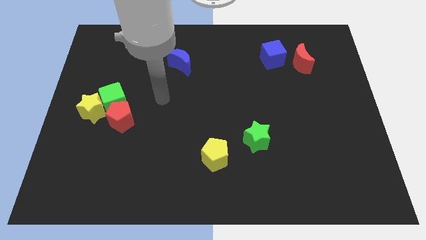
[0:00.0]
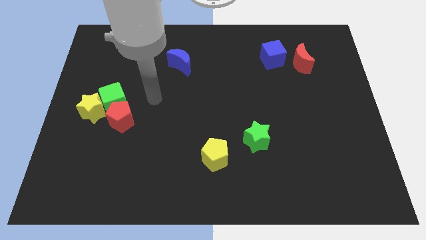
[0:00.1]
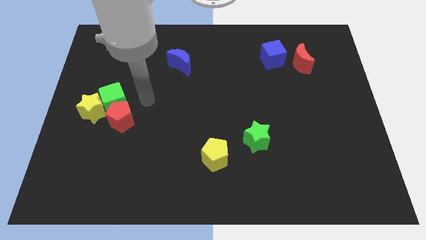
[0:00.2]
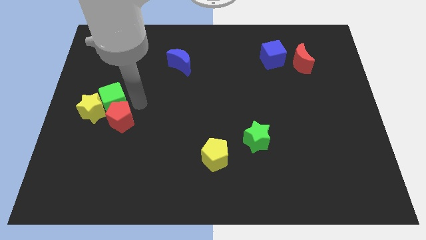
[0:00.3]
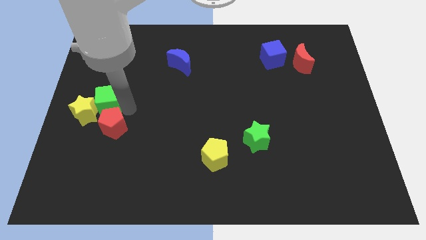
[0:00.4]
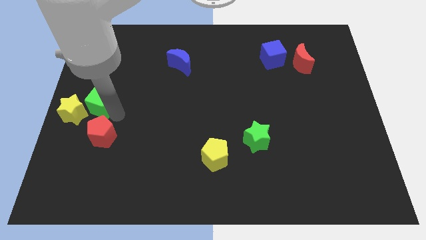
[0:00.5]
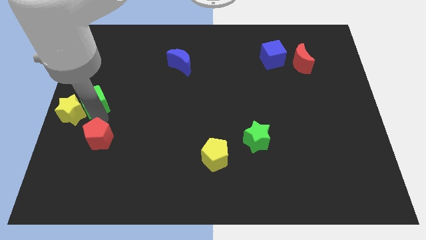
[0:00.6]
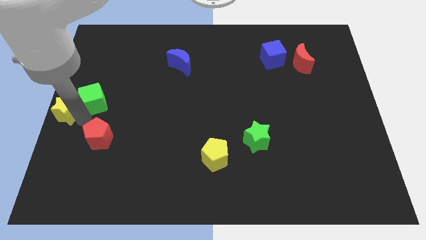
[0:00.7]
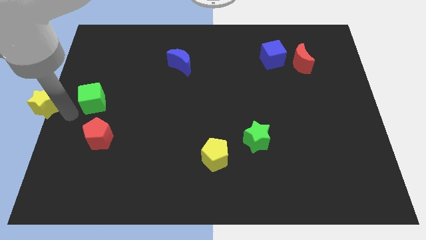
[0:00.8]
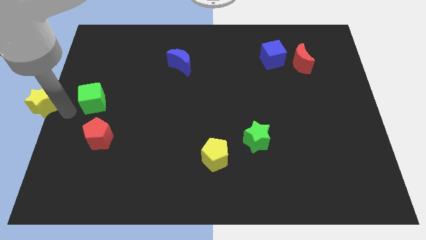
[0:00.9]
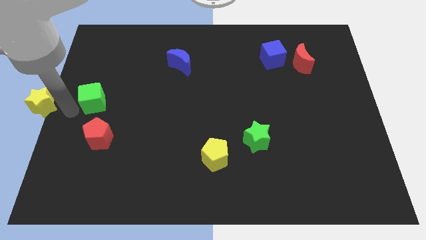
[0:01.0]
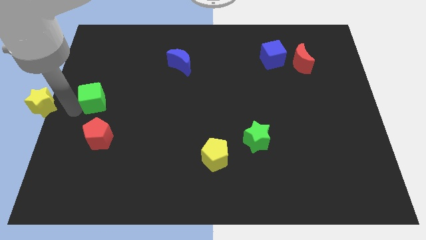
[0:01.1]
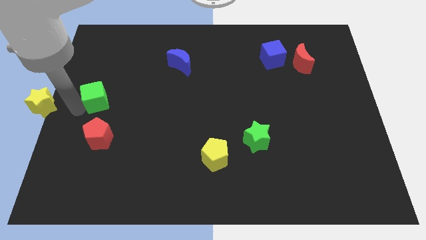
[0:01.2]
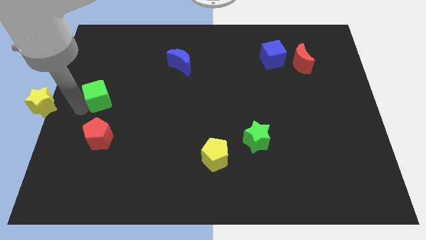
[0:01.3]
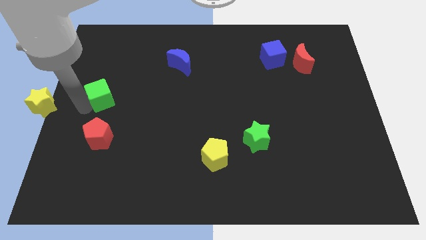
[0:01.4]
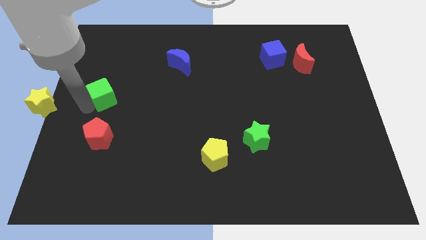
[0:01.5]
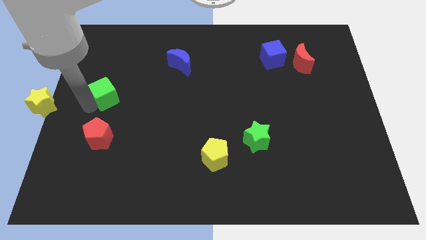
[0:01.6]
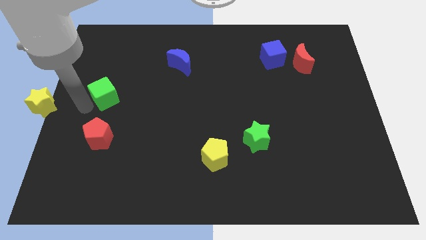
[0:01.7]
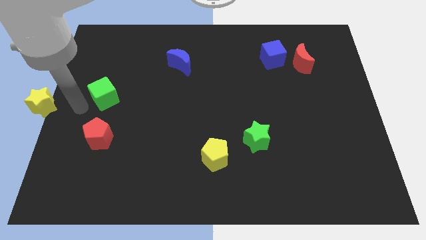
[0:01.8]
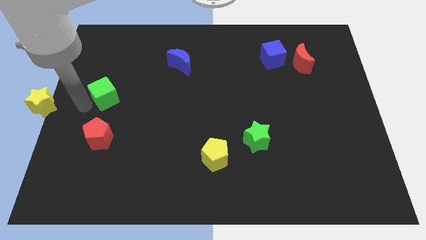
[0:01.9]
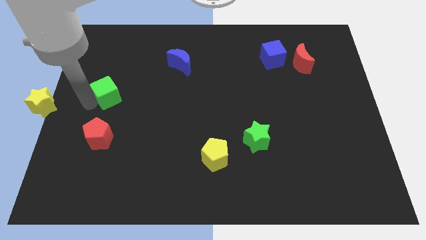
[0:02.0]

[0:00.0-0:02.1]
pull the green cube apart from the yellow star and red pentagon

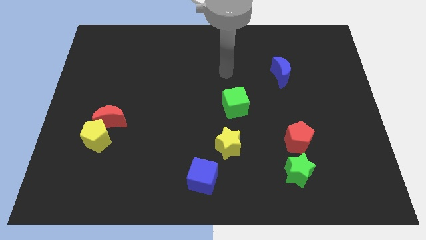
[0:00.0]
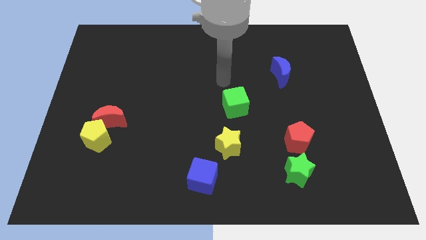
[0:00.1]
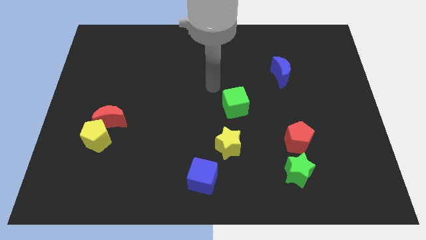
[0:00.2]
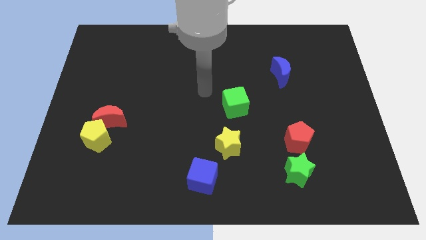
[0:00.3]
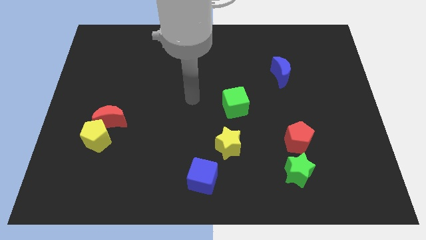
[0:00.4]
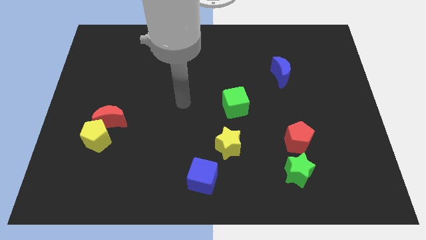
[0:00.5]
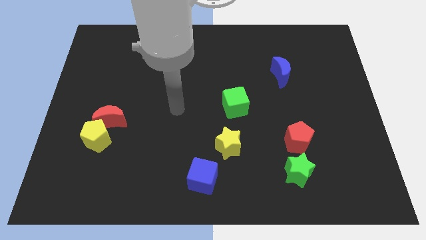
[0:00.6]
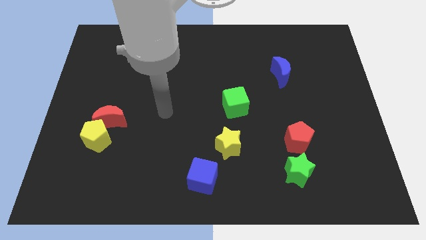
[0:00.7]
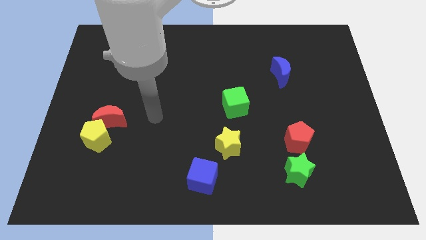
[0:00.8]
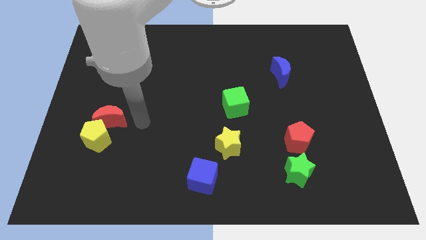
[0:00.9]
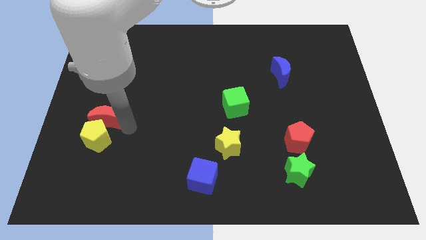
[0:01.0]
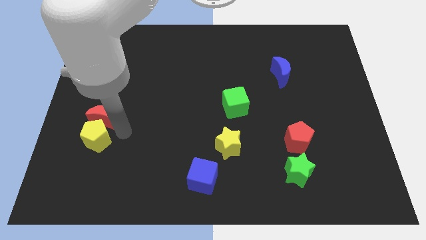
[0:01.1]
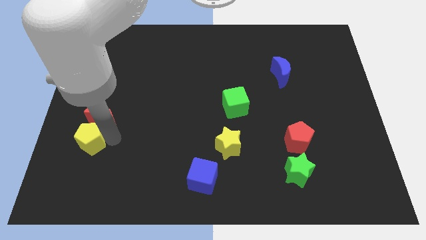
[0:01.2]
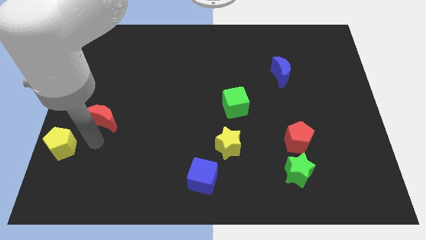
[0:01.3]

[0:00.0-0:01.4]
pull the red moon apart from the yellow pentagon

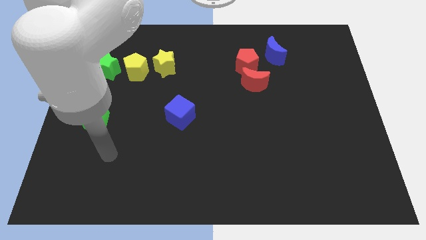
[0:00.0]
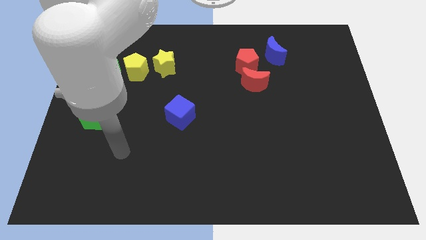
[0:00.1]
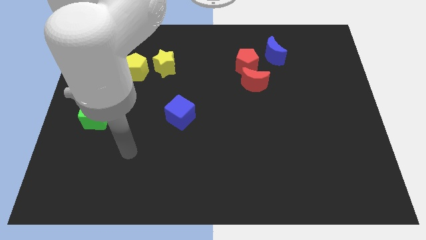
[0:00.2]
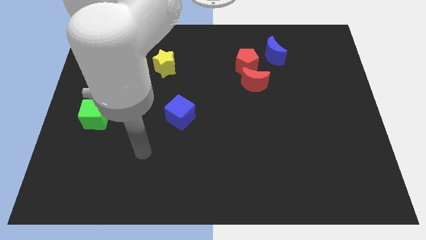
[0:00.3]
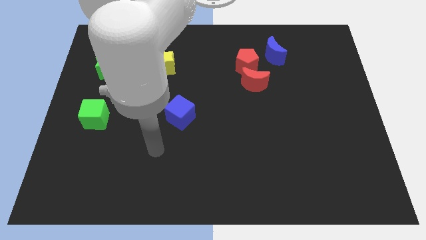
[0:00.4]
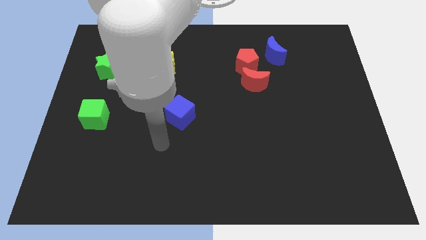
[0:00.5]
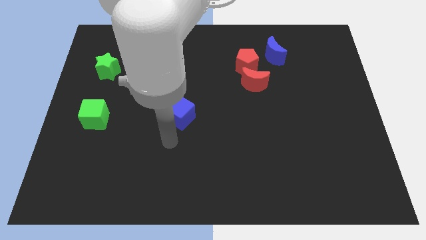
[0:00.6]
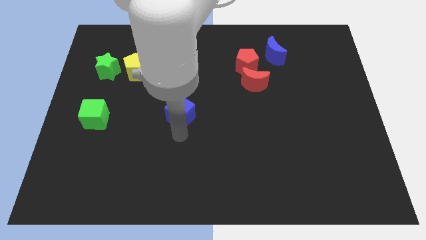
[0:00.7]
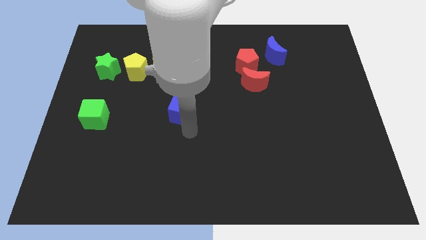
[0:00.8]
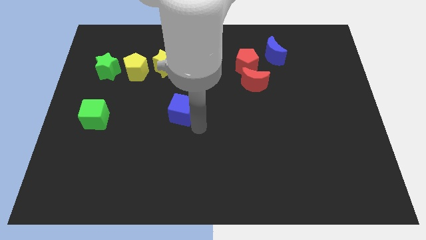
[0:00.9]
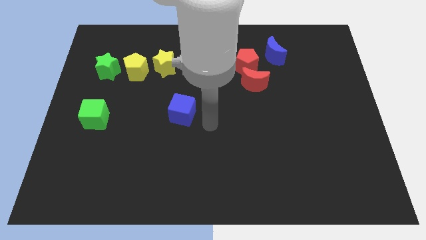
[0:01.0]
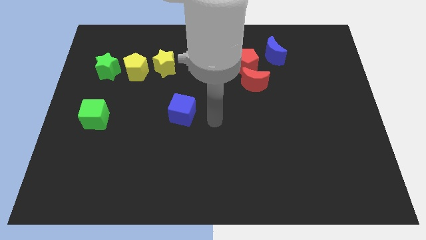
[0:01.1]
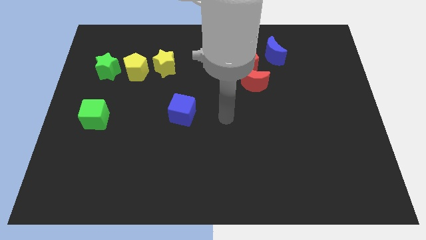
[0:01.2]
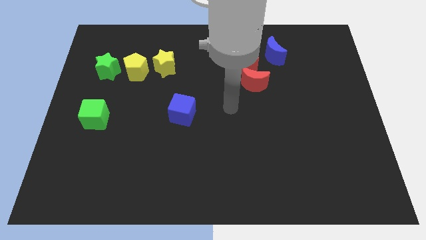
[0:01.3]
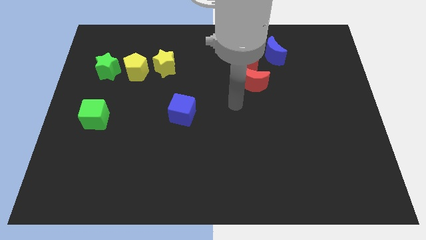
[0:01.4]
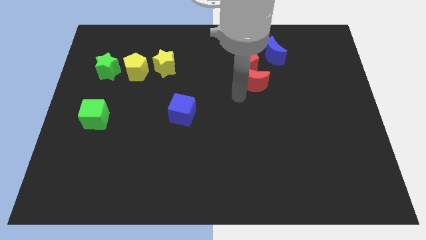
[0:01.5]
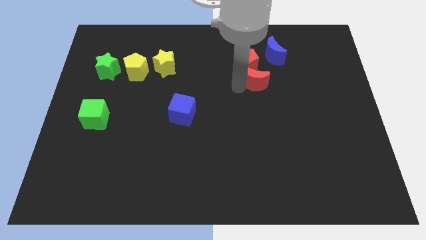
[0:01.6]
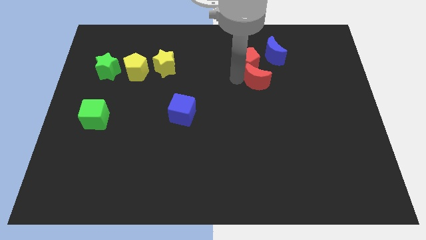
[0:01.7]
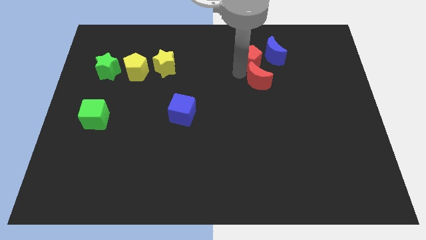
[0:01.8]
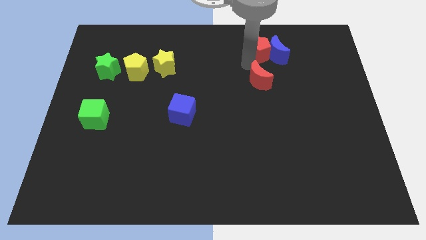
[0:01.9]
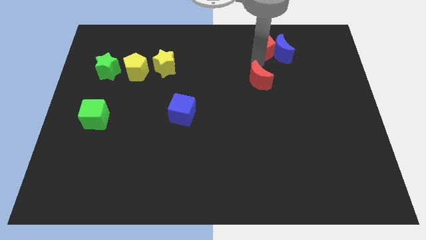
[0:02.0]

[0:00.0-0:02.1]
pull the red moon apart from the red pentagon

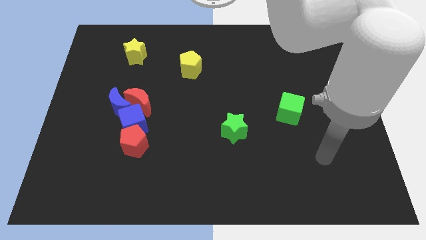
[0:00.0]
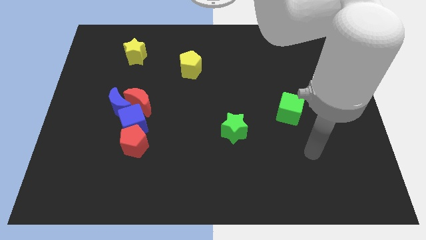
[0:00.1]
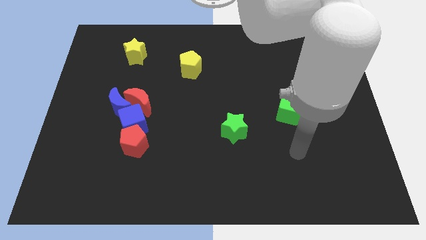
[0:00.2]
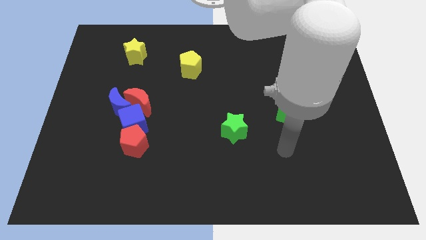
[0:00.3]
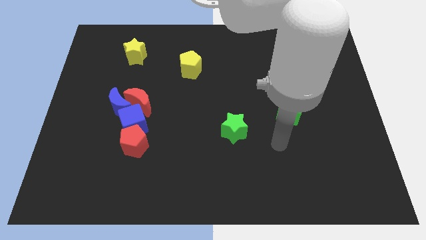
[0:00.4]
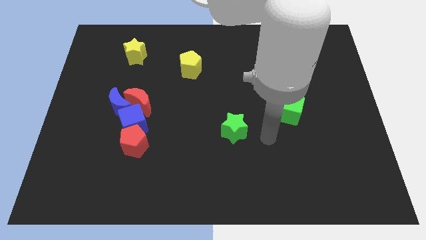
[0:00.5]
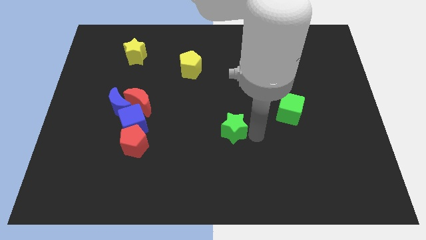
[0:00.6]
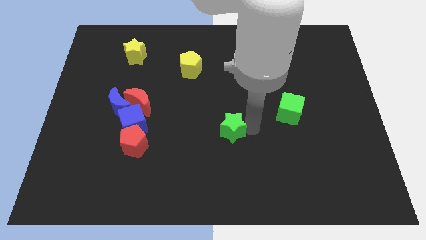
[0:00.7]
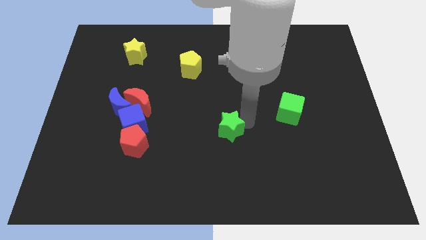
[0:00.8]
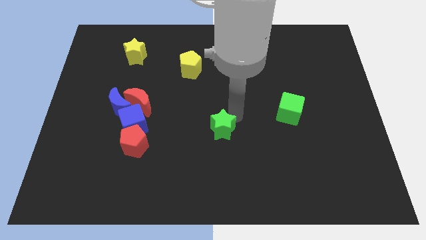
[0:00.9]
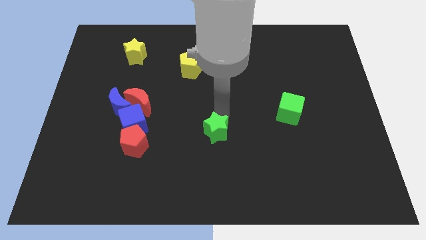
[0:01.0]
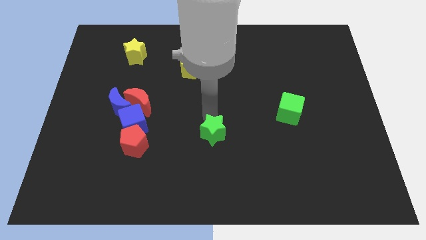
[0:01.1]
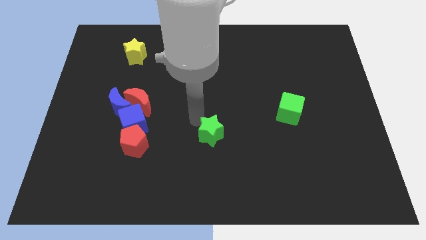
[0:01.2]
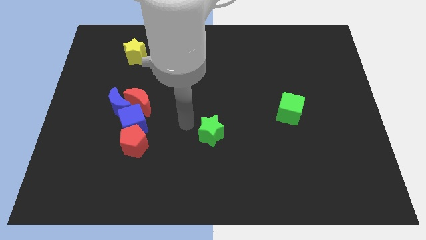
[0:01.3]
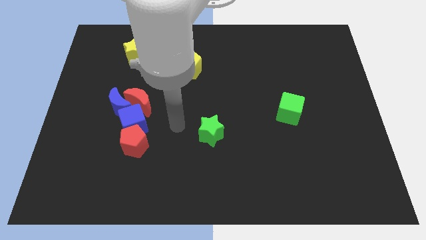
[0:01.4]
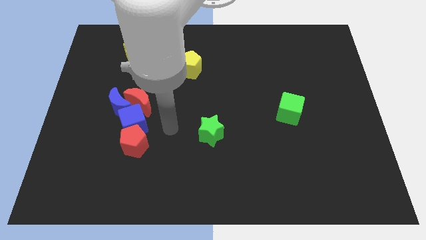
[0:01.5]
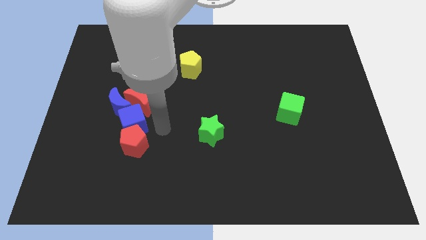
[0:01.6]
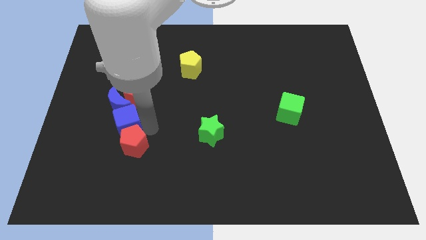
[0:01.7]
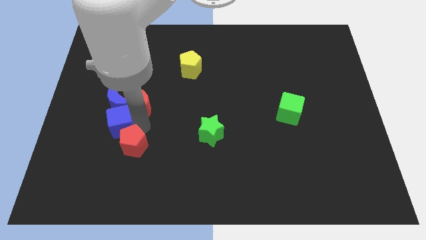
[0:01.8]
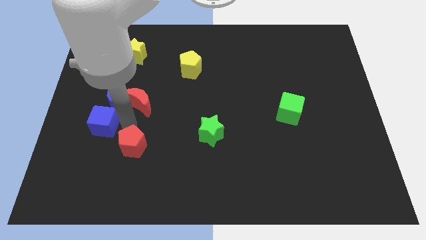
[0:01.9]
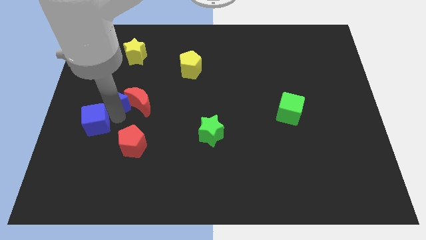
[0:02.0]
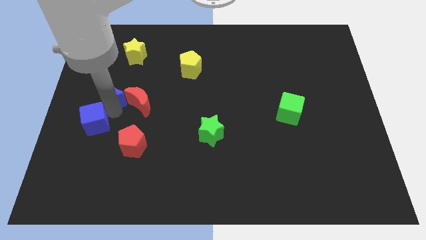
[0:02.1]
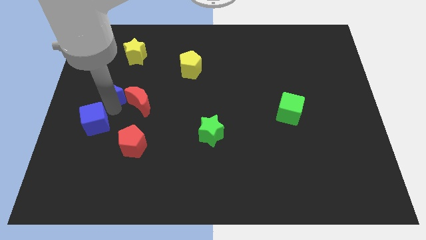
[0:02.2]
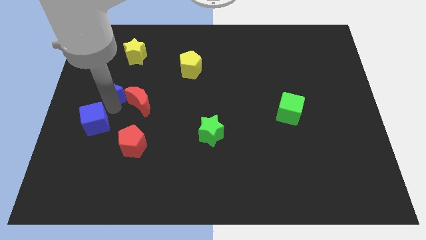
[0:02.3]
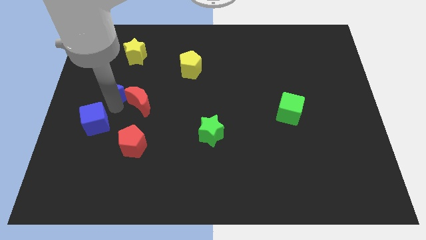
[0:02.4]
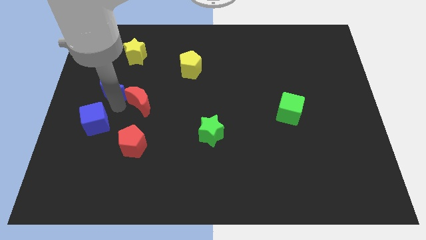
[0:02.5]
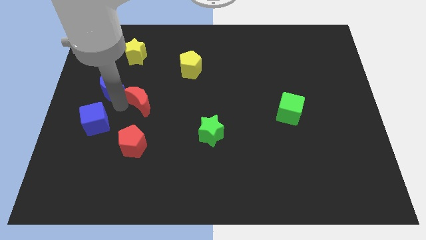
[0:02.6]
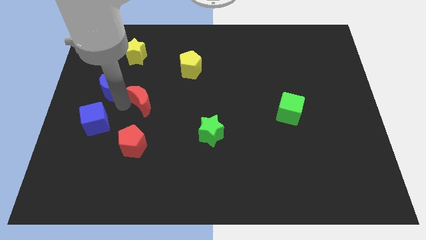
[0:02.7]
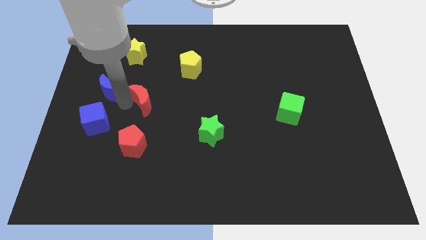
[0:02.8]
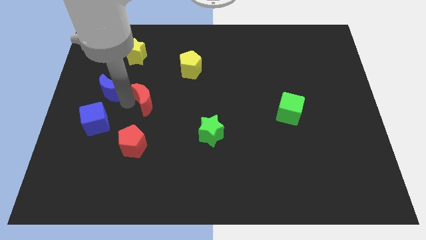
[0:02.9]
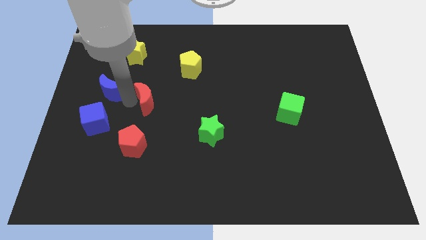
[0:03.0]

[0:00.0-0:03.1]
pull the red moon apart from the blue moon and blue cube

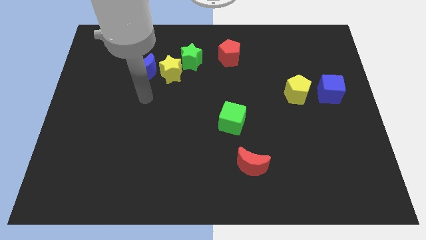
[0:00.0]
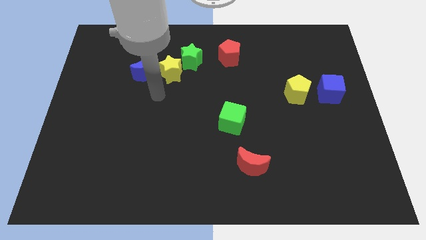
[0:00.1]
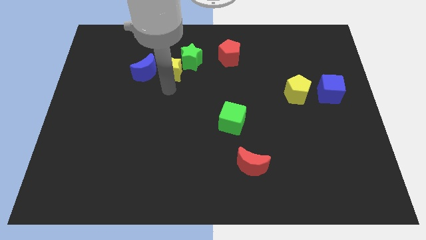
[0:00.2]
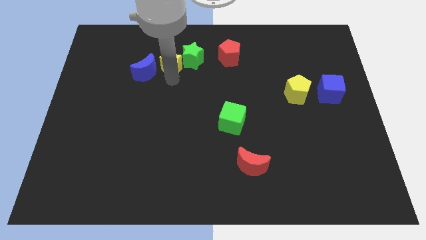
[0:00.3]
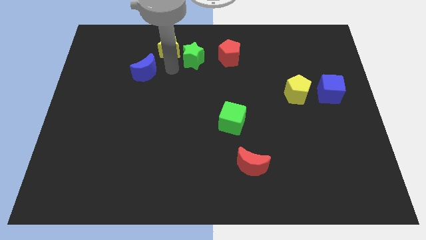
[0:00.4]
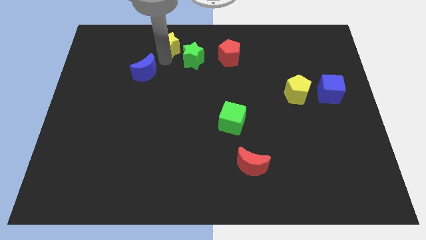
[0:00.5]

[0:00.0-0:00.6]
separate the blue moon from the yellow star
